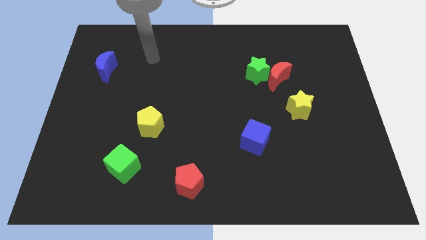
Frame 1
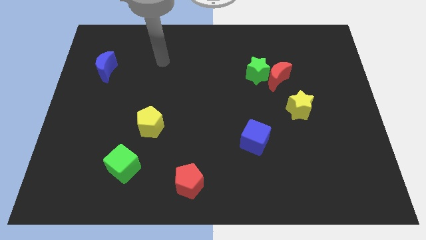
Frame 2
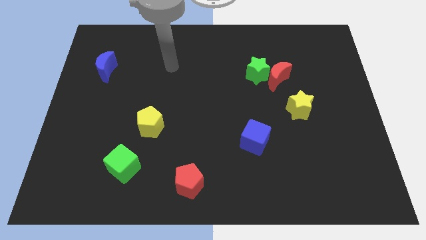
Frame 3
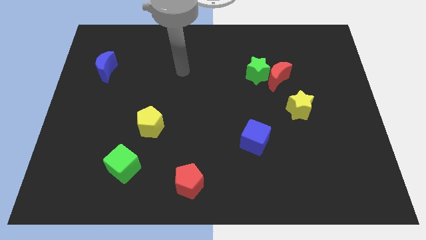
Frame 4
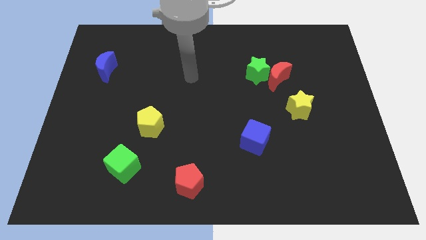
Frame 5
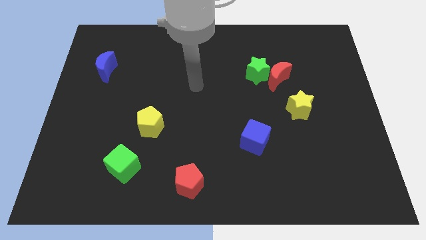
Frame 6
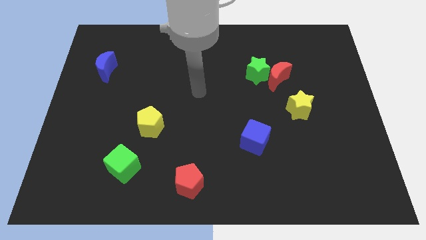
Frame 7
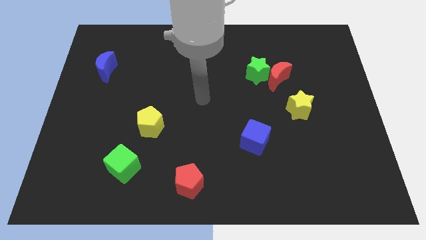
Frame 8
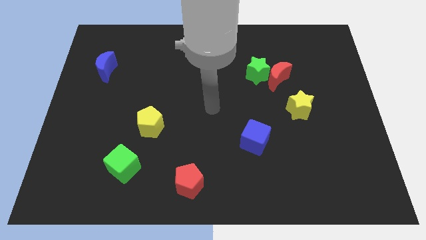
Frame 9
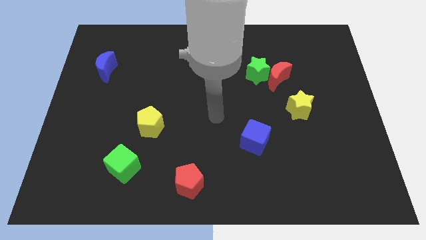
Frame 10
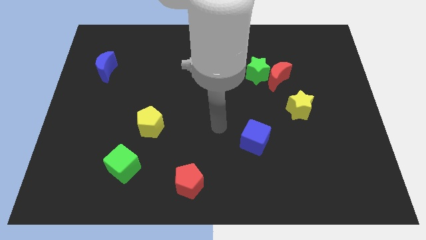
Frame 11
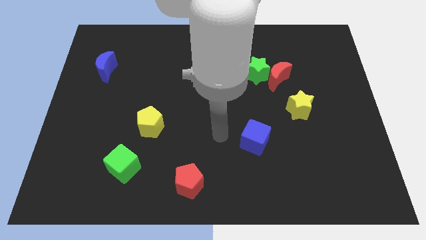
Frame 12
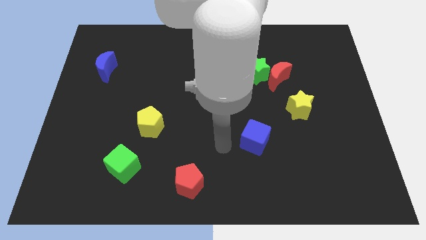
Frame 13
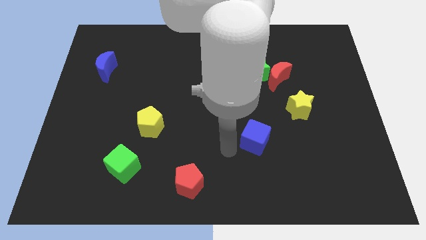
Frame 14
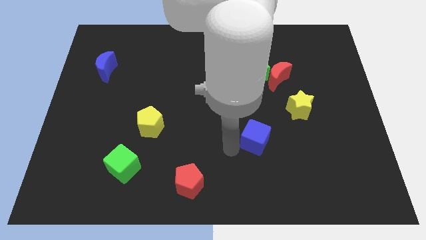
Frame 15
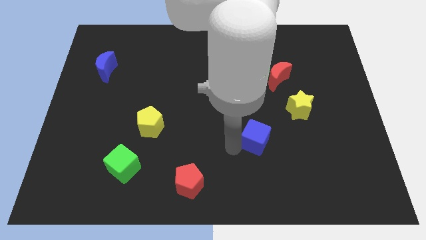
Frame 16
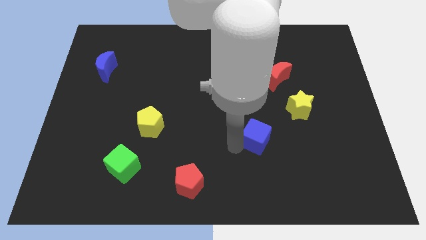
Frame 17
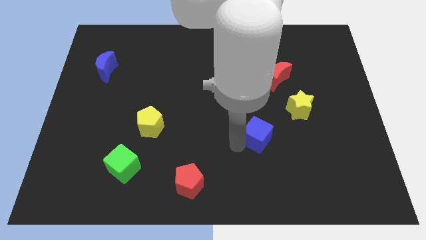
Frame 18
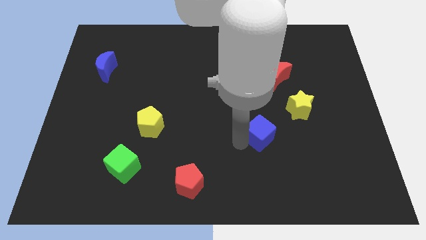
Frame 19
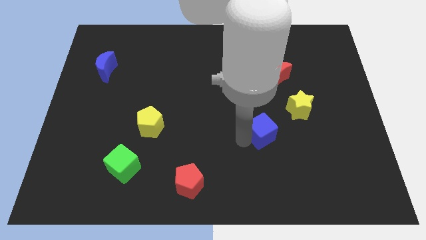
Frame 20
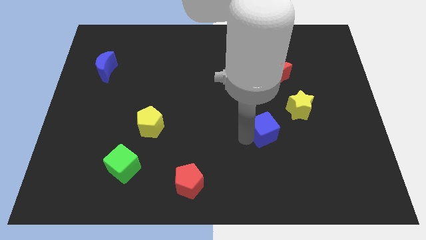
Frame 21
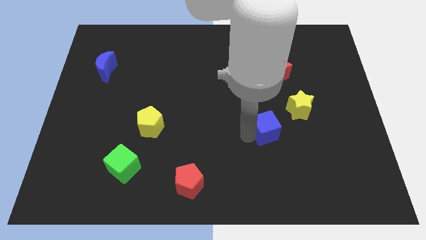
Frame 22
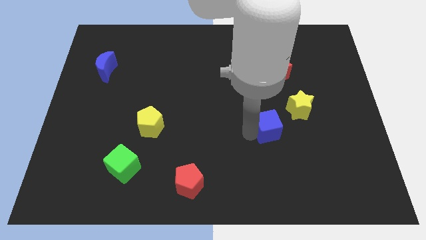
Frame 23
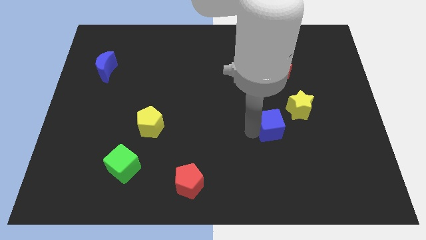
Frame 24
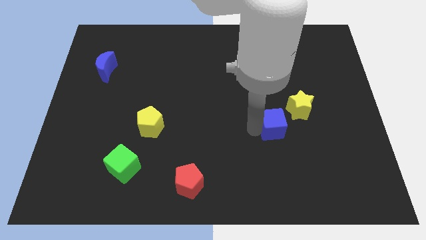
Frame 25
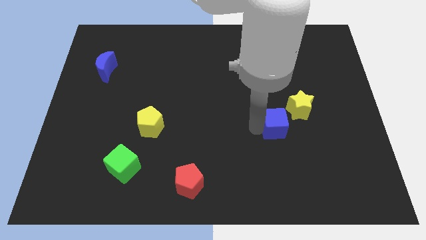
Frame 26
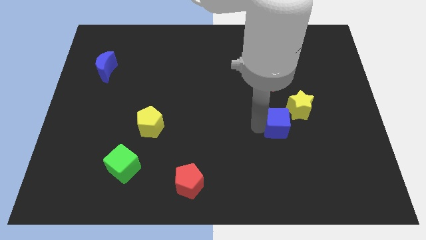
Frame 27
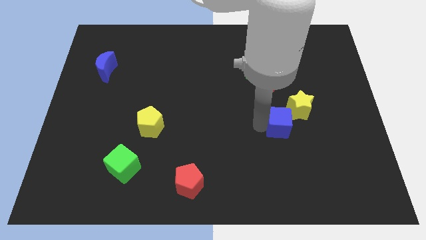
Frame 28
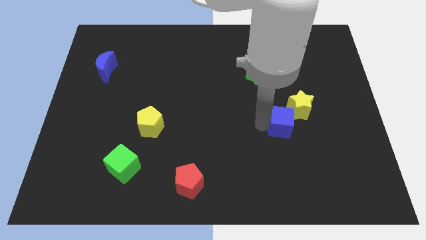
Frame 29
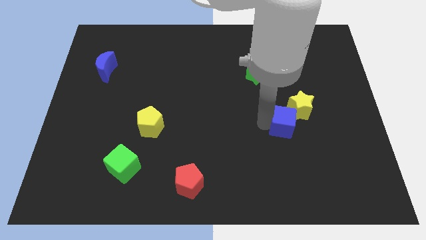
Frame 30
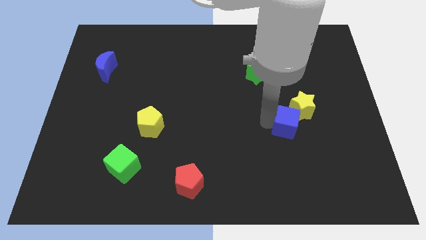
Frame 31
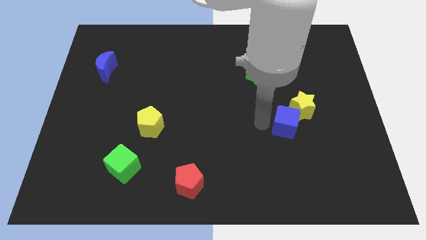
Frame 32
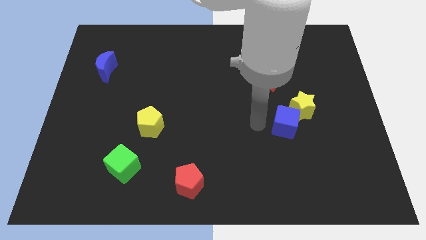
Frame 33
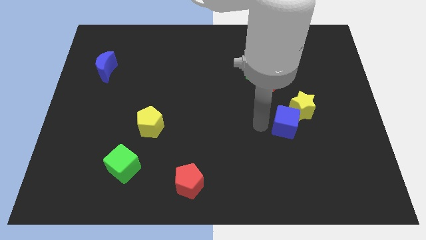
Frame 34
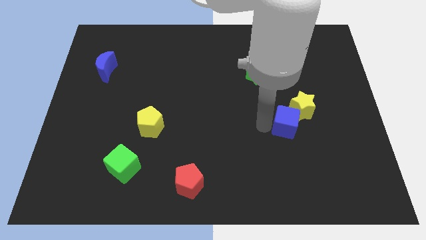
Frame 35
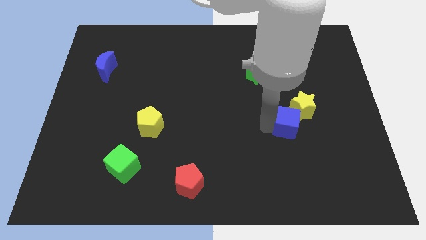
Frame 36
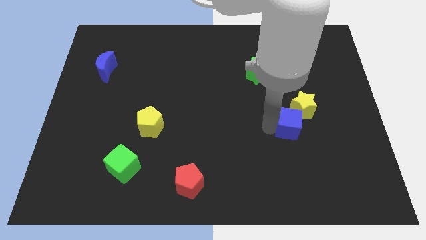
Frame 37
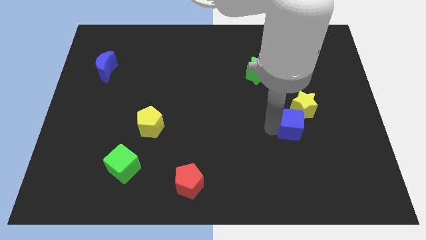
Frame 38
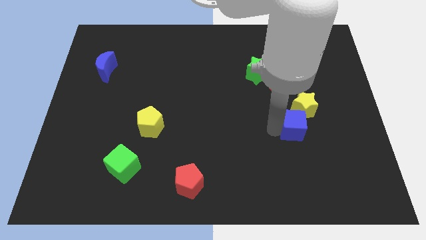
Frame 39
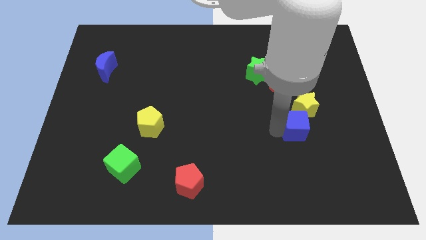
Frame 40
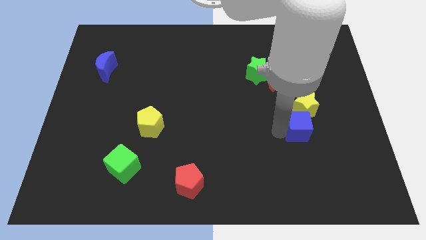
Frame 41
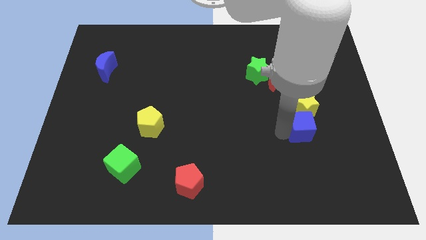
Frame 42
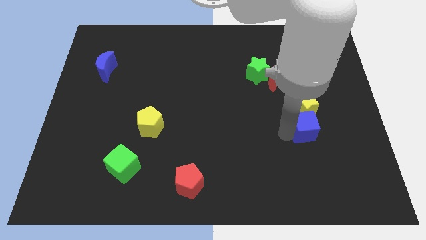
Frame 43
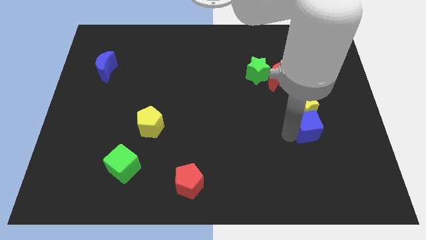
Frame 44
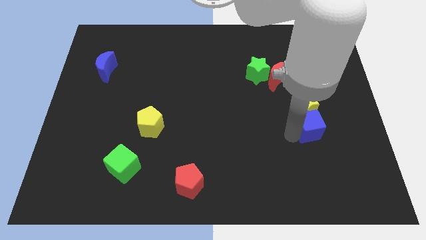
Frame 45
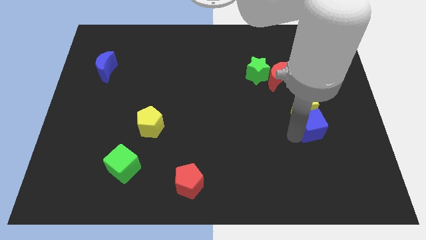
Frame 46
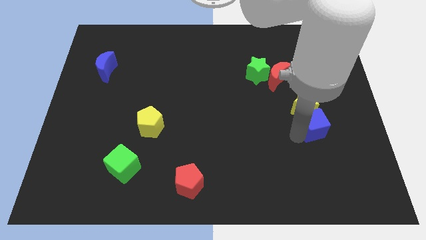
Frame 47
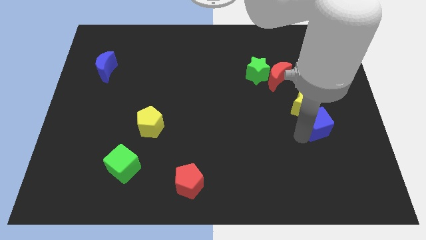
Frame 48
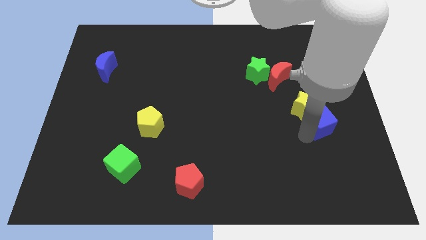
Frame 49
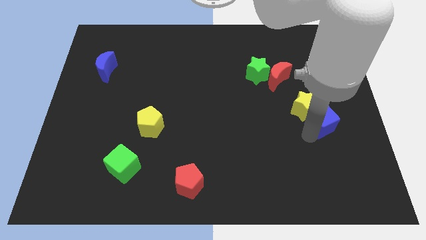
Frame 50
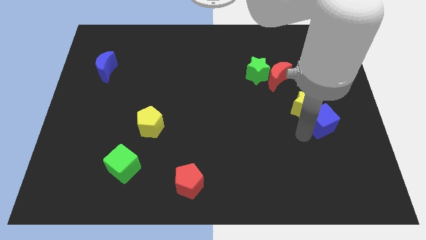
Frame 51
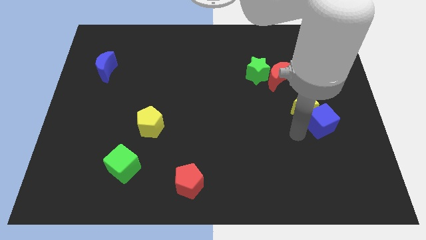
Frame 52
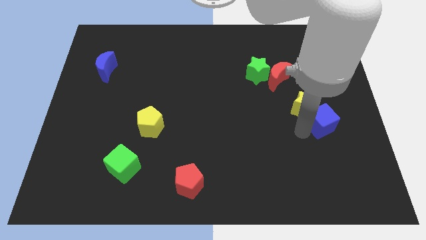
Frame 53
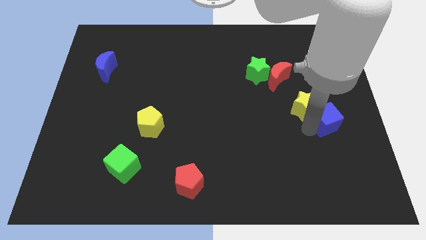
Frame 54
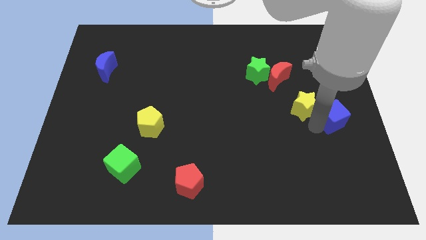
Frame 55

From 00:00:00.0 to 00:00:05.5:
move the blue cube to the right side
